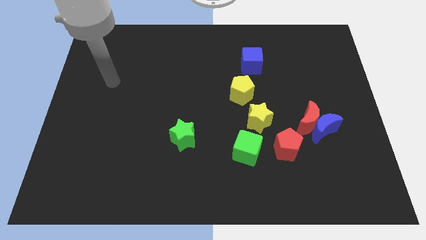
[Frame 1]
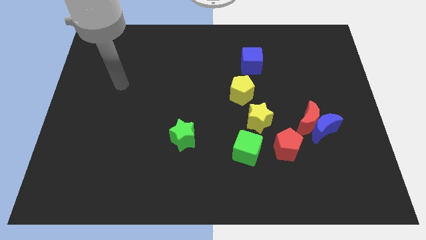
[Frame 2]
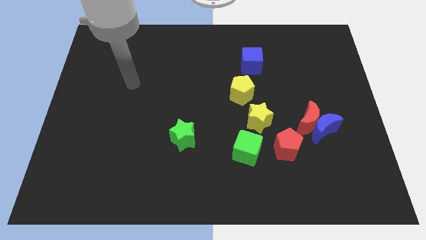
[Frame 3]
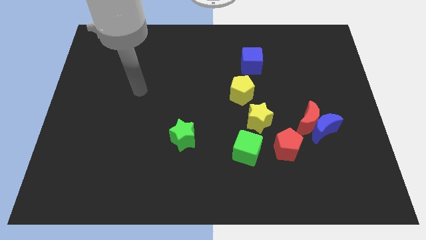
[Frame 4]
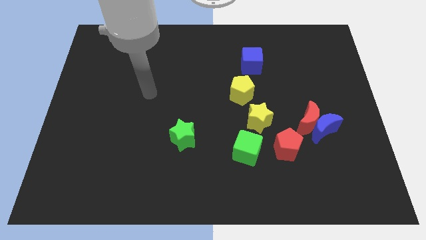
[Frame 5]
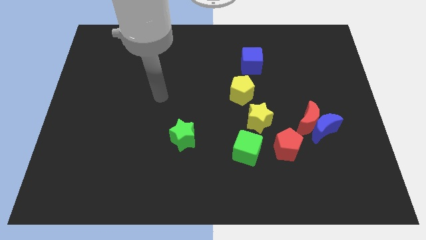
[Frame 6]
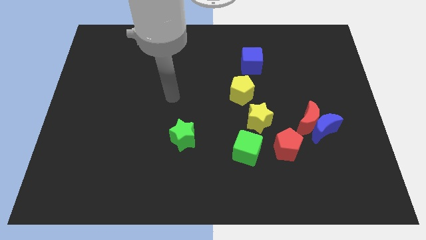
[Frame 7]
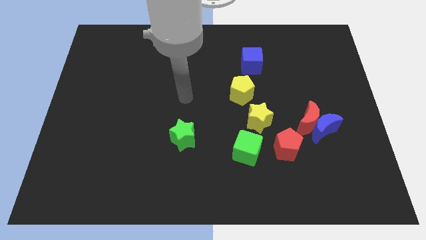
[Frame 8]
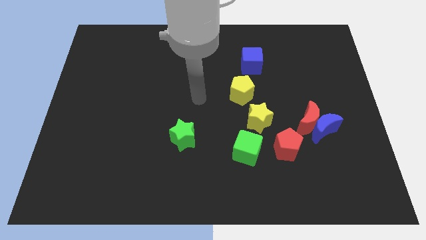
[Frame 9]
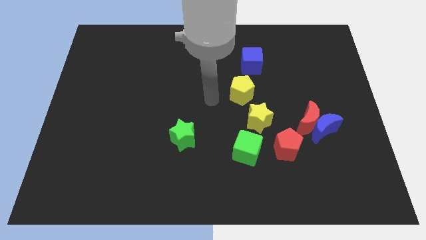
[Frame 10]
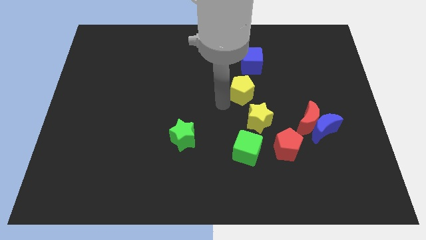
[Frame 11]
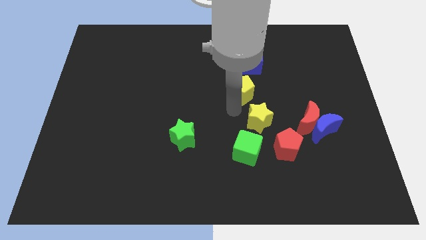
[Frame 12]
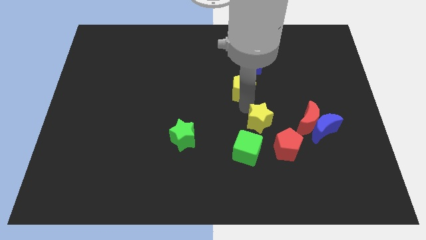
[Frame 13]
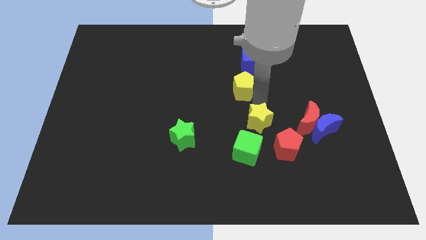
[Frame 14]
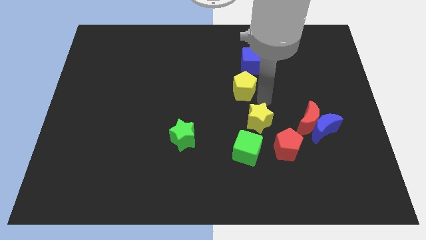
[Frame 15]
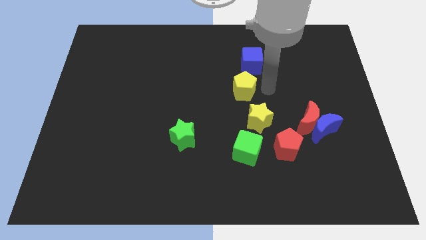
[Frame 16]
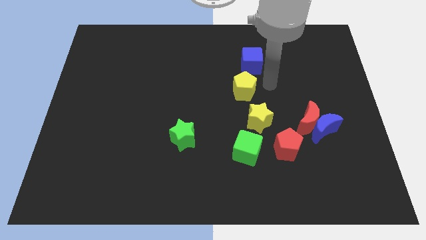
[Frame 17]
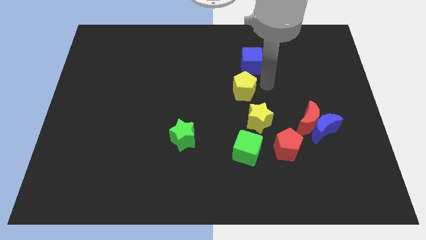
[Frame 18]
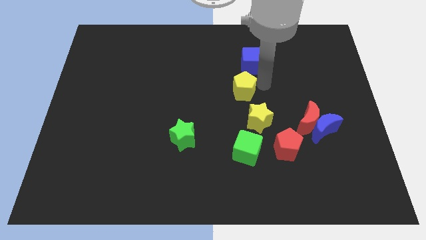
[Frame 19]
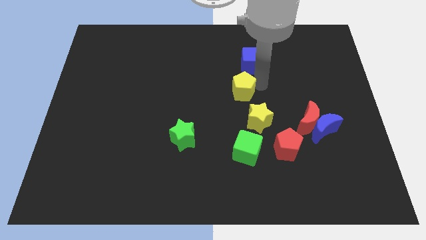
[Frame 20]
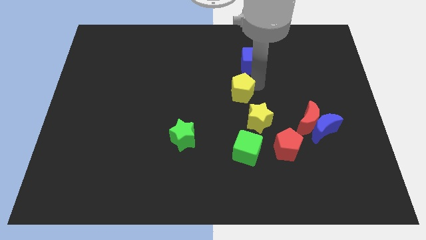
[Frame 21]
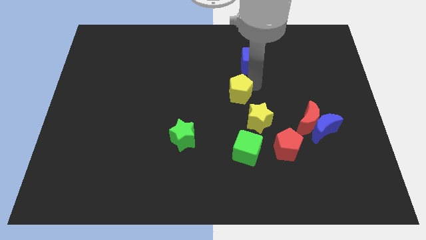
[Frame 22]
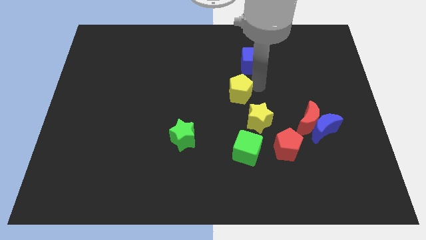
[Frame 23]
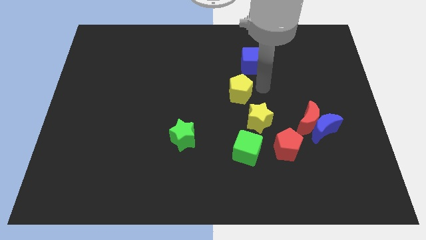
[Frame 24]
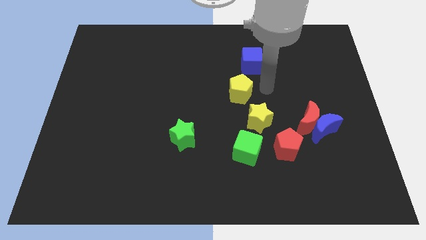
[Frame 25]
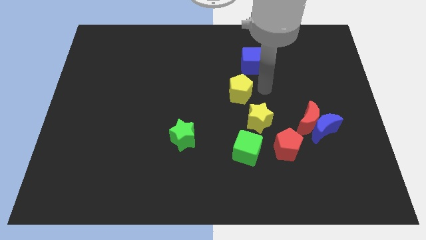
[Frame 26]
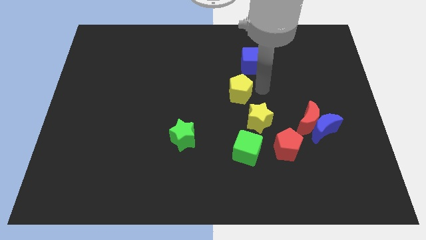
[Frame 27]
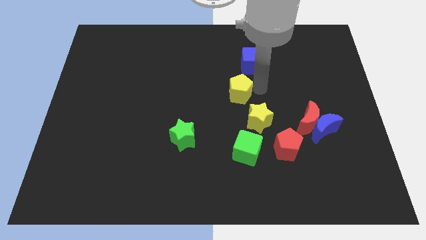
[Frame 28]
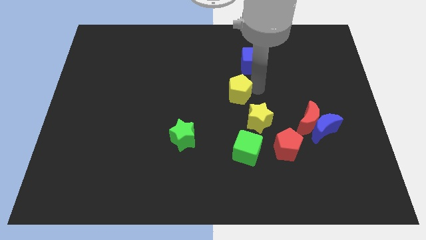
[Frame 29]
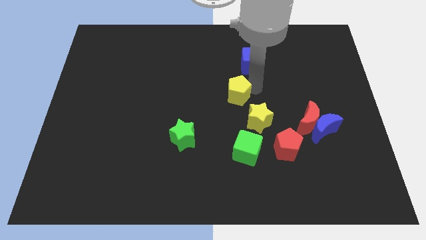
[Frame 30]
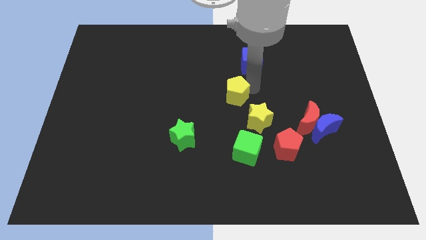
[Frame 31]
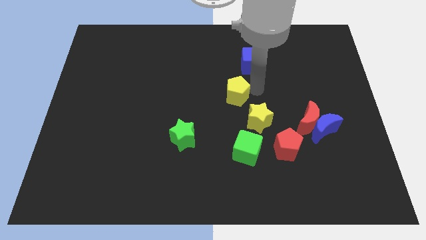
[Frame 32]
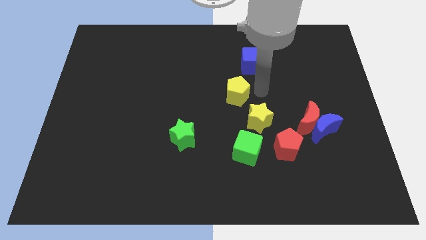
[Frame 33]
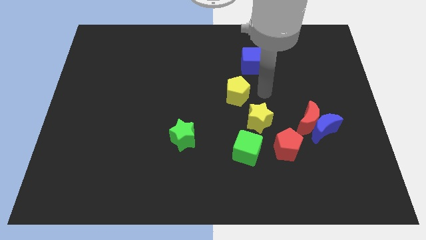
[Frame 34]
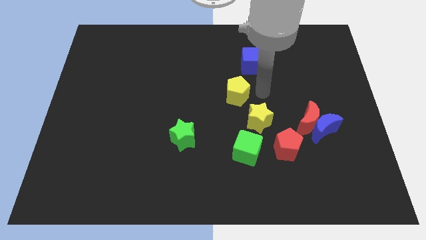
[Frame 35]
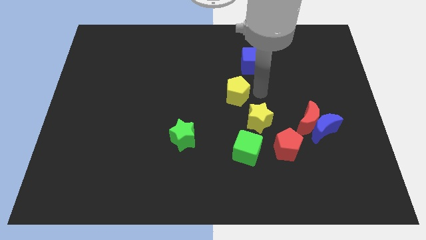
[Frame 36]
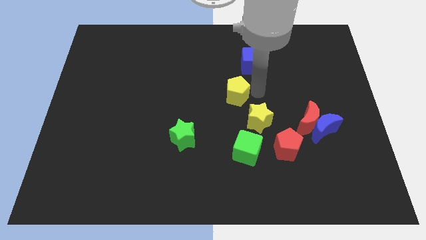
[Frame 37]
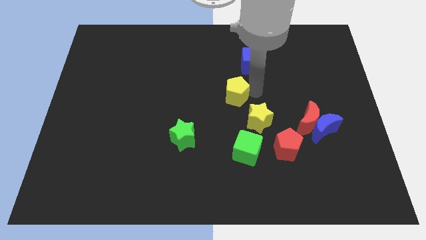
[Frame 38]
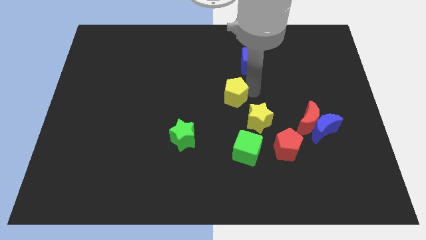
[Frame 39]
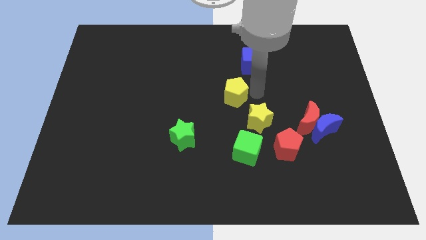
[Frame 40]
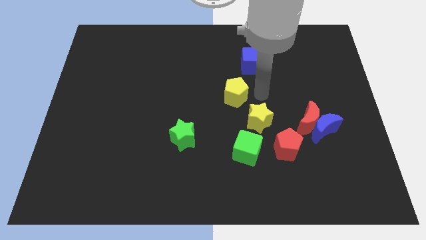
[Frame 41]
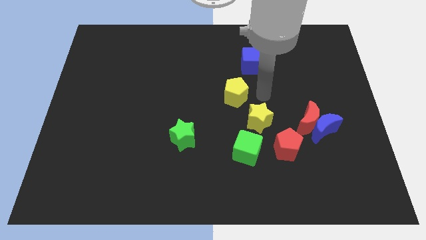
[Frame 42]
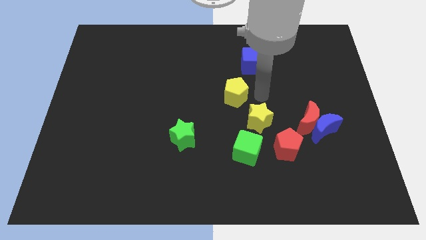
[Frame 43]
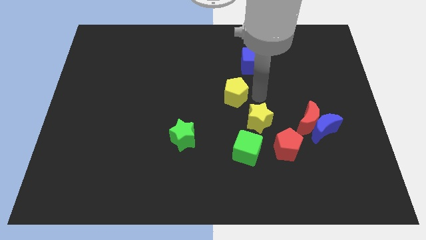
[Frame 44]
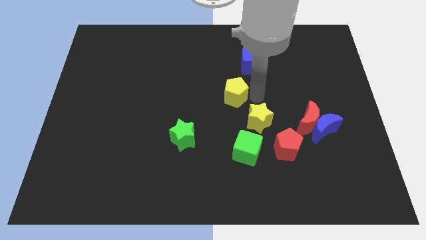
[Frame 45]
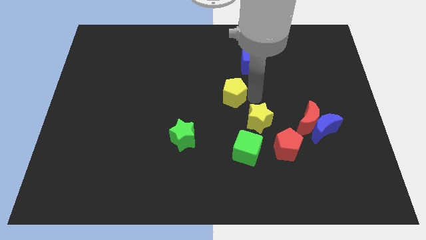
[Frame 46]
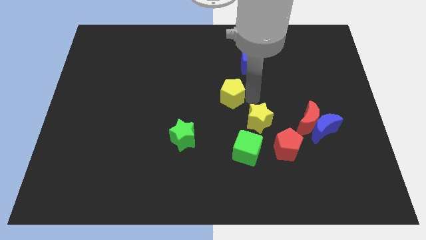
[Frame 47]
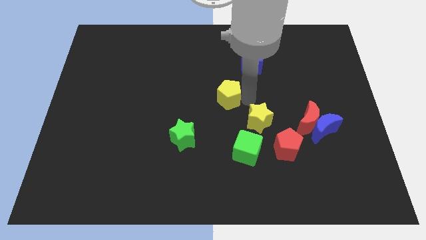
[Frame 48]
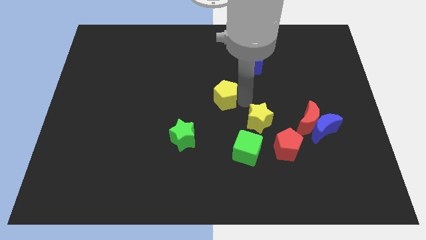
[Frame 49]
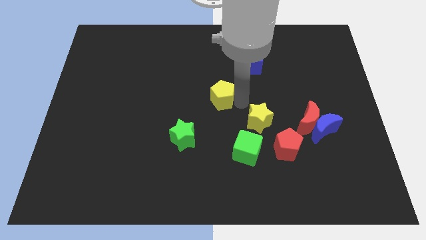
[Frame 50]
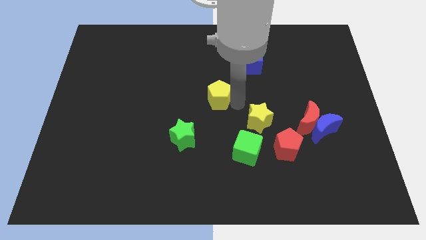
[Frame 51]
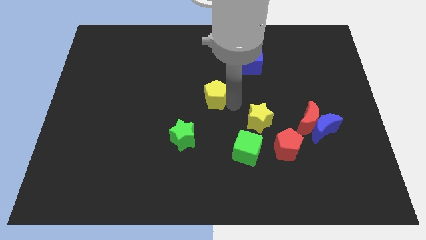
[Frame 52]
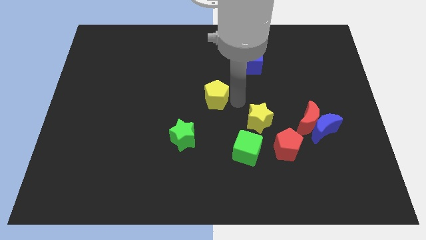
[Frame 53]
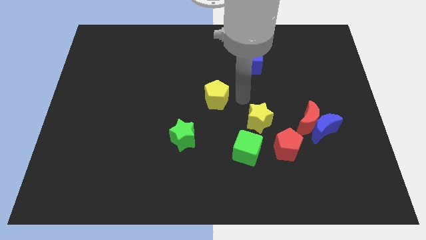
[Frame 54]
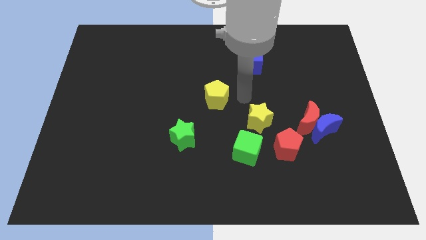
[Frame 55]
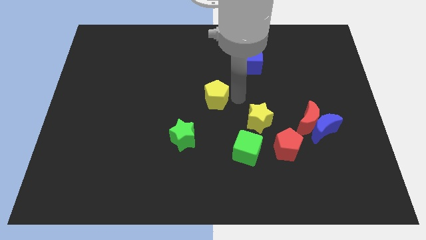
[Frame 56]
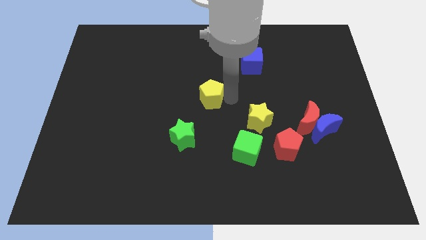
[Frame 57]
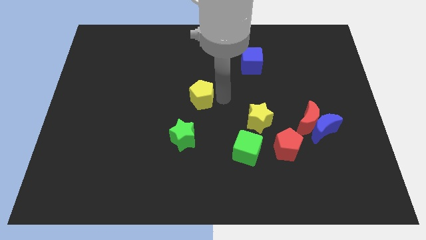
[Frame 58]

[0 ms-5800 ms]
push the yellow pentagon to the top of the green star

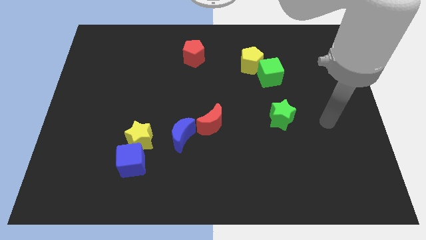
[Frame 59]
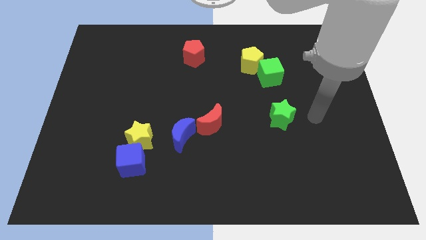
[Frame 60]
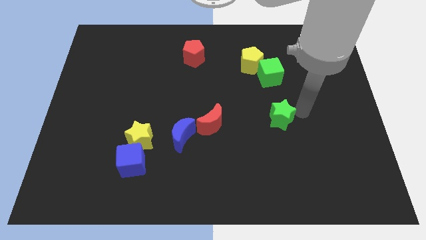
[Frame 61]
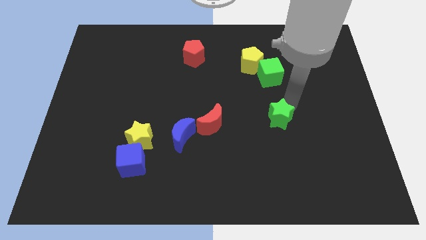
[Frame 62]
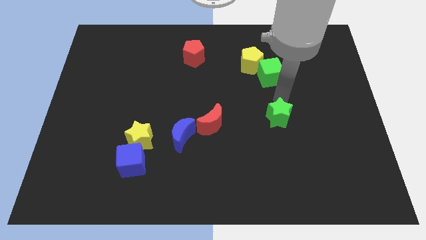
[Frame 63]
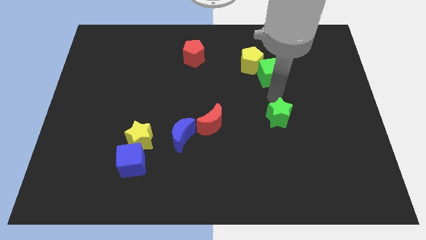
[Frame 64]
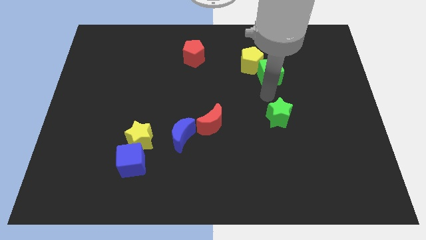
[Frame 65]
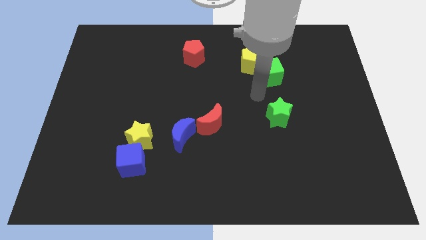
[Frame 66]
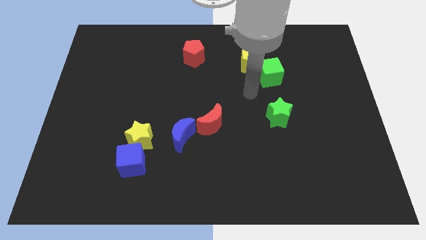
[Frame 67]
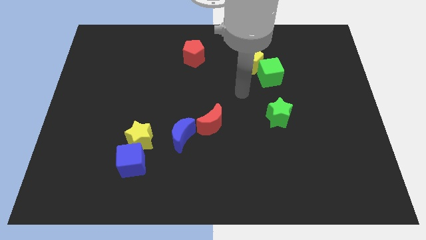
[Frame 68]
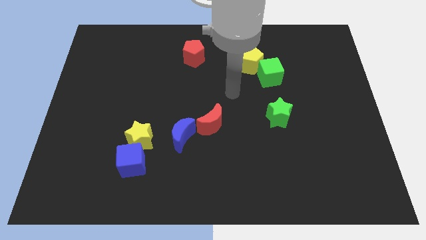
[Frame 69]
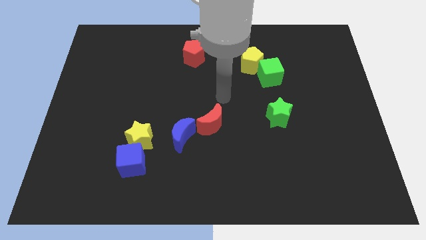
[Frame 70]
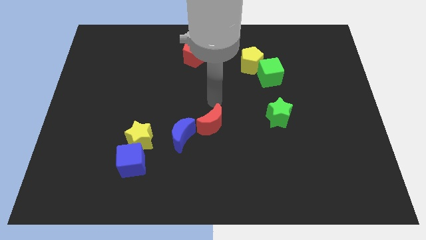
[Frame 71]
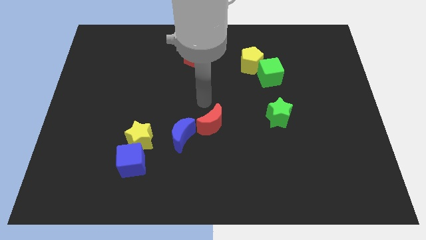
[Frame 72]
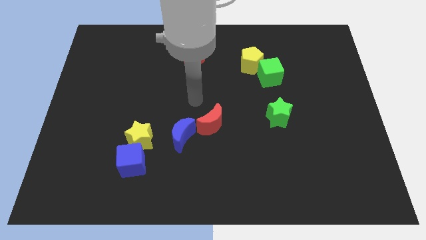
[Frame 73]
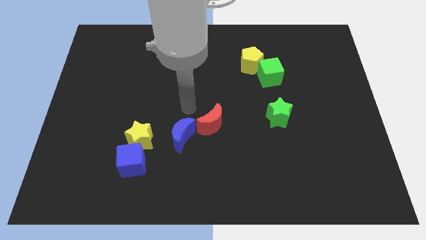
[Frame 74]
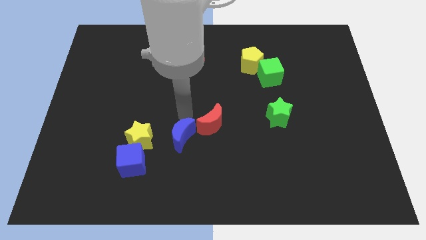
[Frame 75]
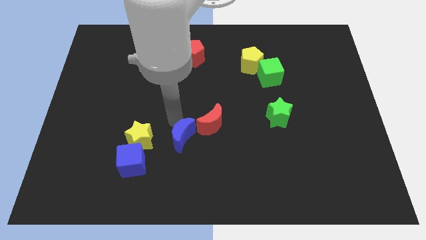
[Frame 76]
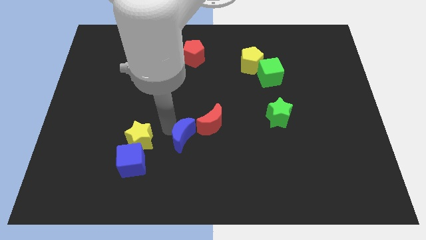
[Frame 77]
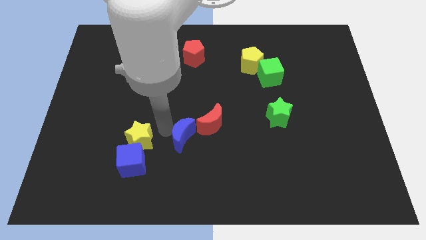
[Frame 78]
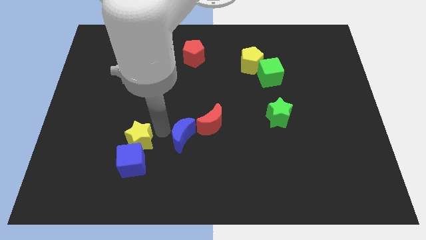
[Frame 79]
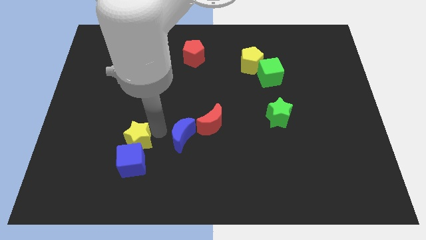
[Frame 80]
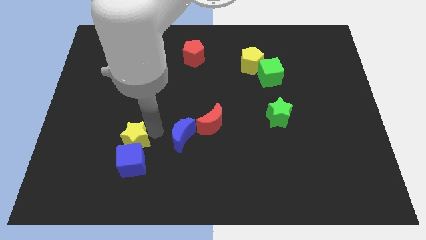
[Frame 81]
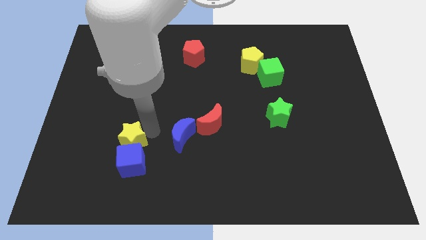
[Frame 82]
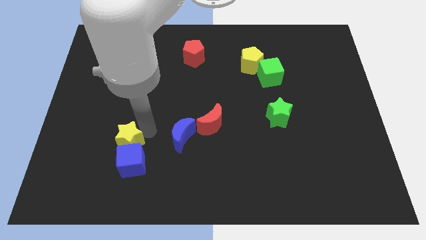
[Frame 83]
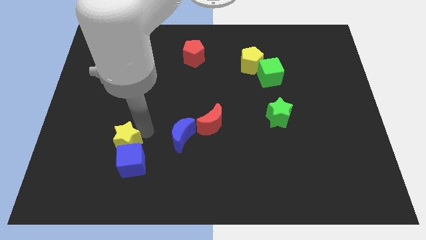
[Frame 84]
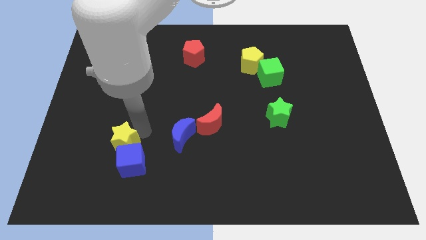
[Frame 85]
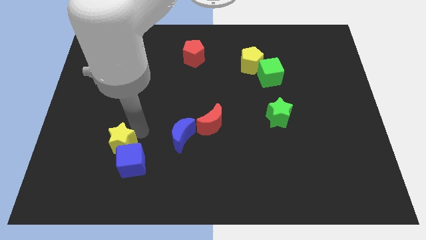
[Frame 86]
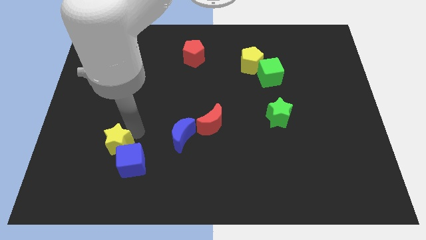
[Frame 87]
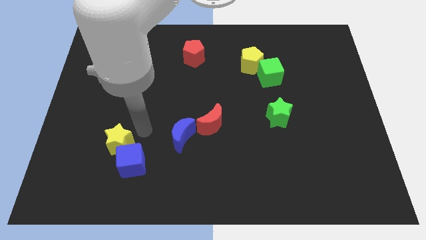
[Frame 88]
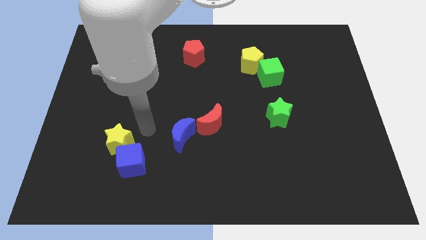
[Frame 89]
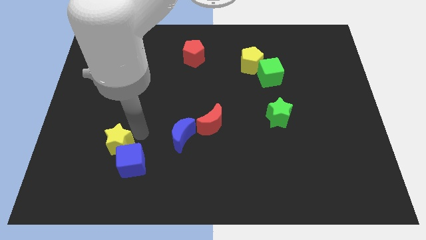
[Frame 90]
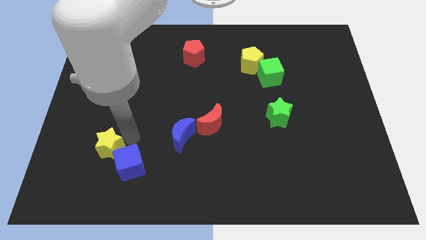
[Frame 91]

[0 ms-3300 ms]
put the yellow star just left of the blue cube
